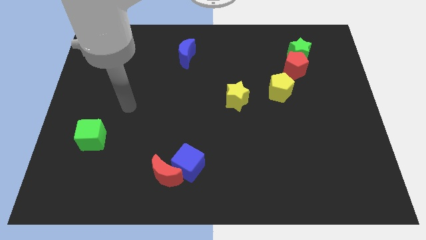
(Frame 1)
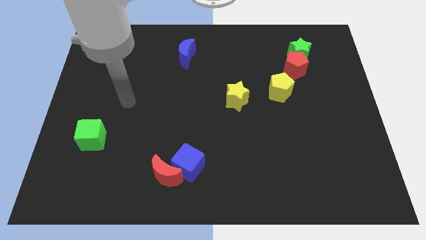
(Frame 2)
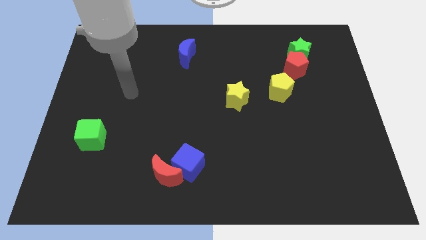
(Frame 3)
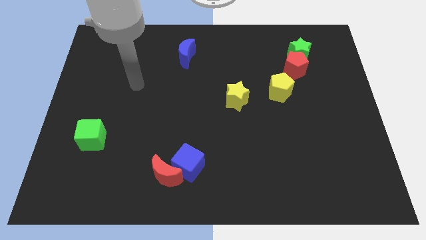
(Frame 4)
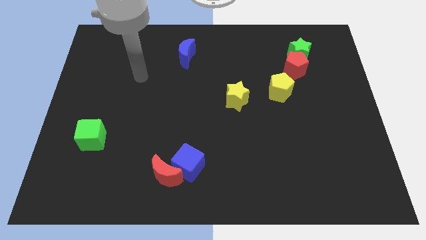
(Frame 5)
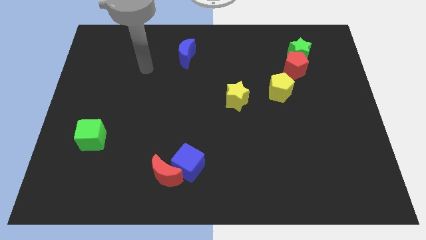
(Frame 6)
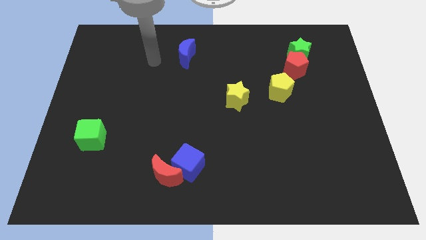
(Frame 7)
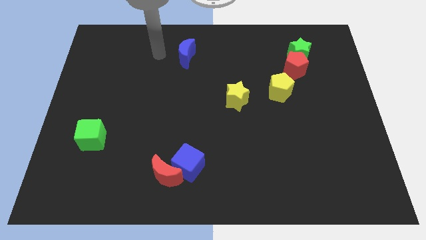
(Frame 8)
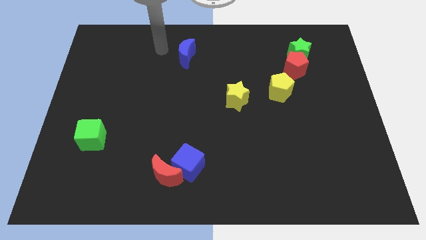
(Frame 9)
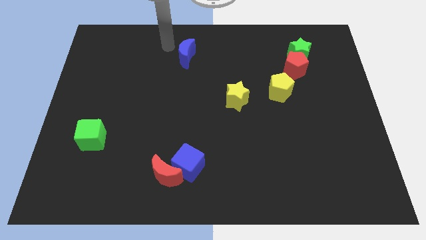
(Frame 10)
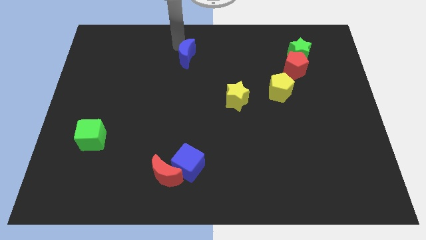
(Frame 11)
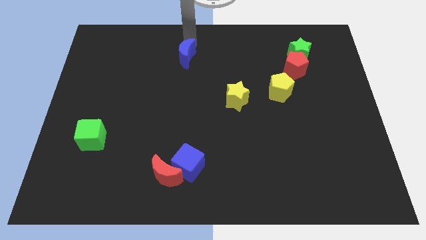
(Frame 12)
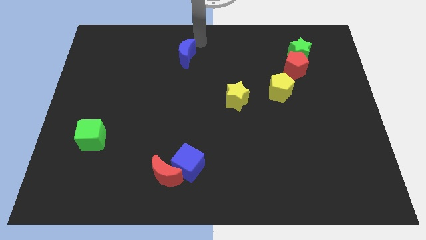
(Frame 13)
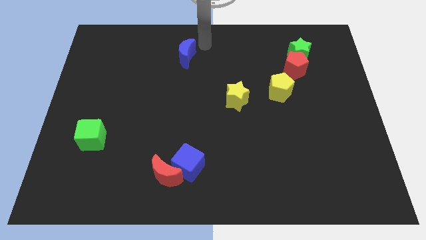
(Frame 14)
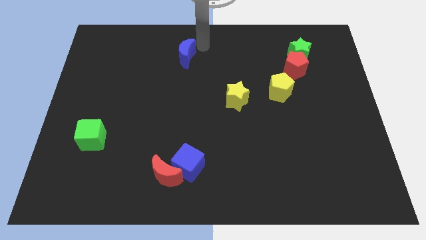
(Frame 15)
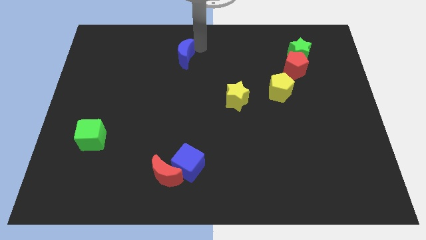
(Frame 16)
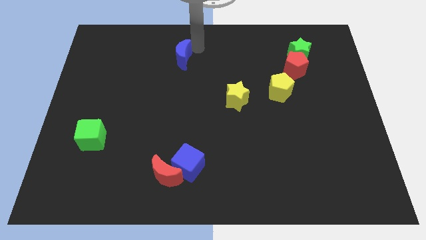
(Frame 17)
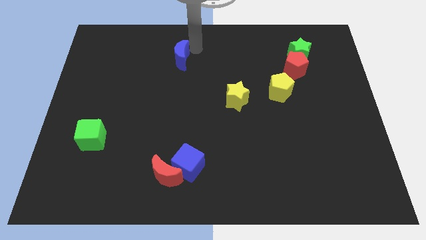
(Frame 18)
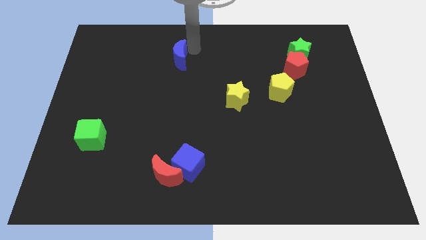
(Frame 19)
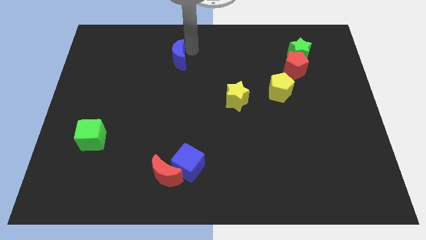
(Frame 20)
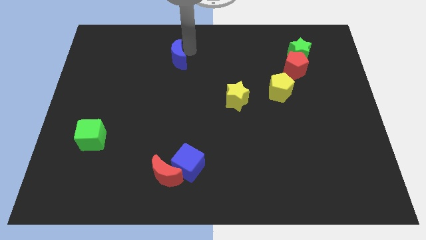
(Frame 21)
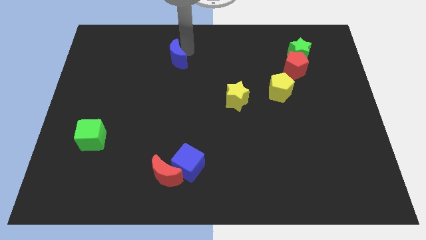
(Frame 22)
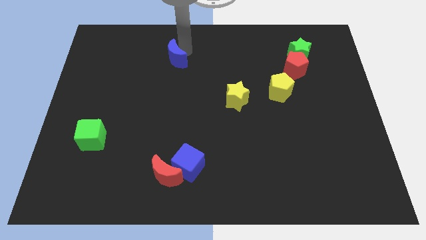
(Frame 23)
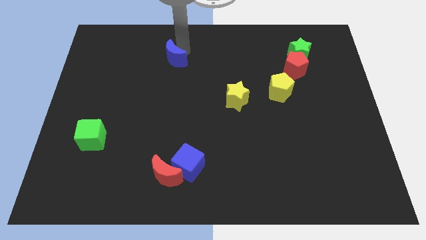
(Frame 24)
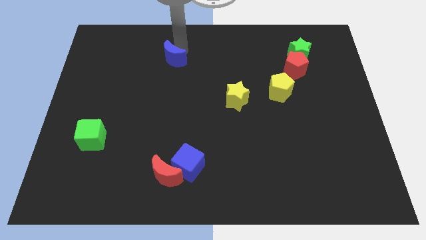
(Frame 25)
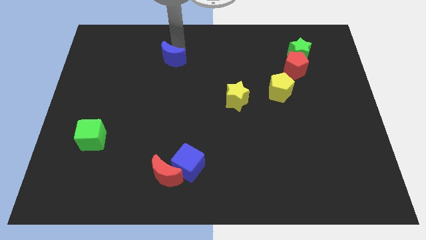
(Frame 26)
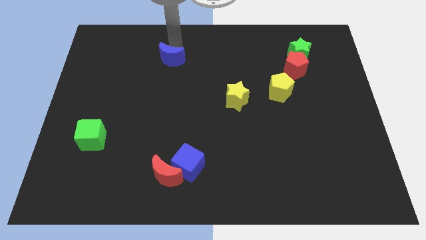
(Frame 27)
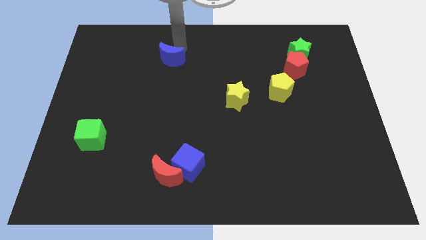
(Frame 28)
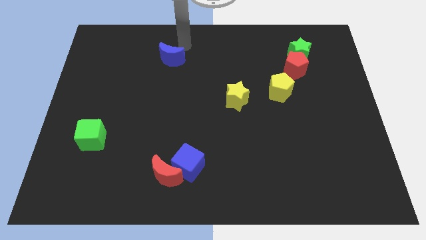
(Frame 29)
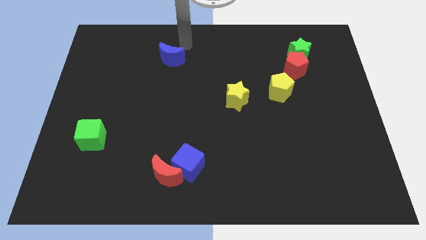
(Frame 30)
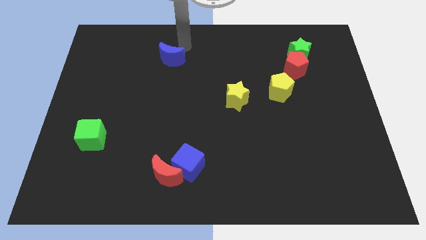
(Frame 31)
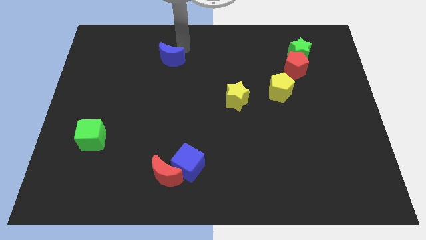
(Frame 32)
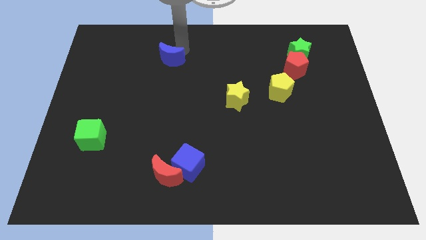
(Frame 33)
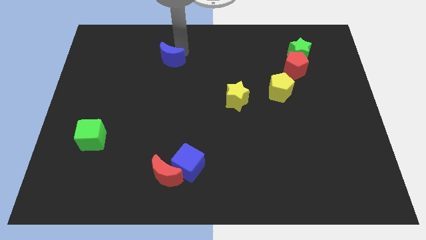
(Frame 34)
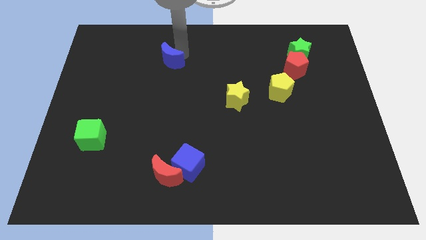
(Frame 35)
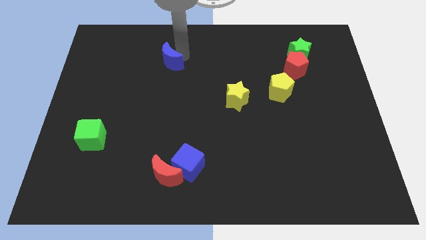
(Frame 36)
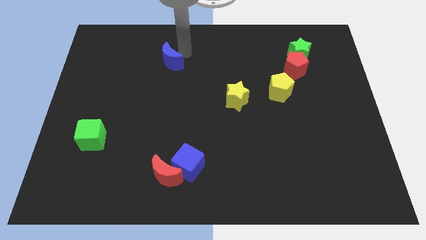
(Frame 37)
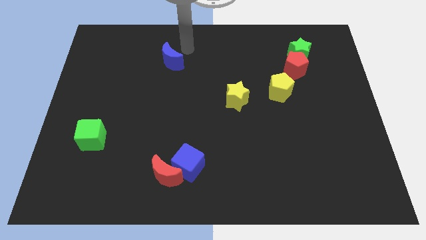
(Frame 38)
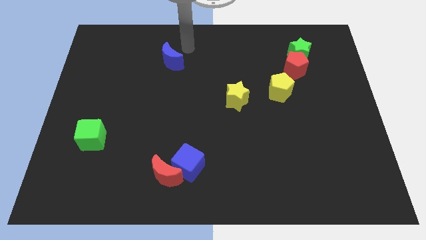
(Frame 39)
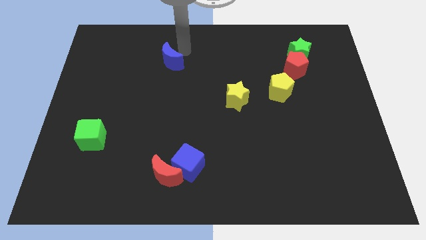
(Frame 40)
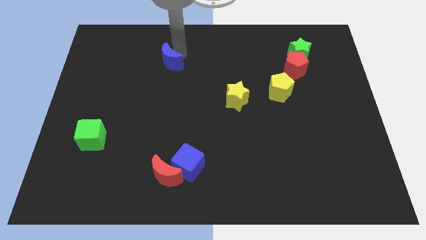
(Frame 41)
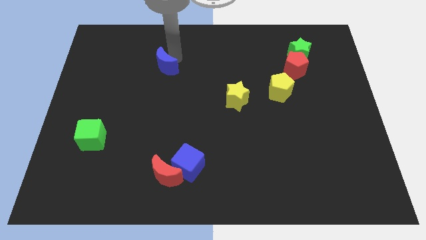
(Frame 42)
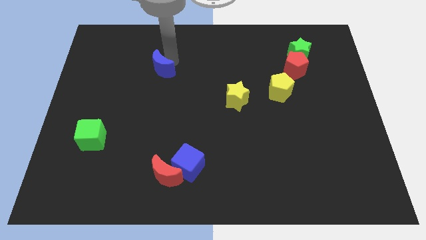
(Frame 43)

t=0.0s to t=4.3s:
push the blue moon down and left diagonally somewhat

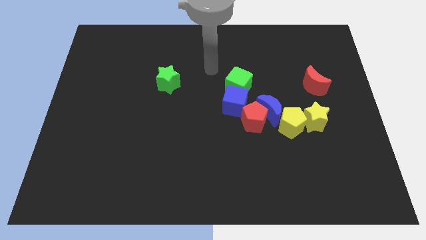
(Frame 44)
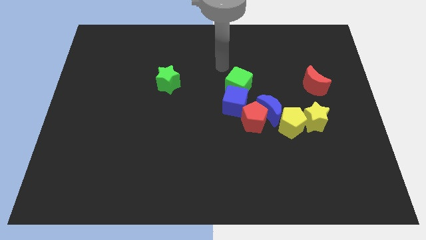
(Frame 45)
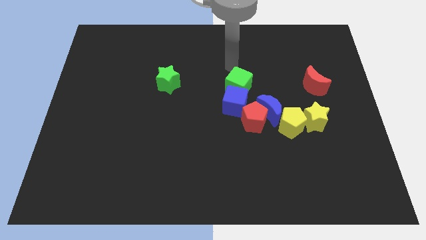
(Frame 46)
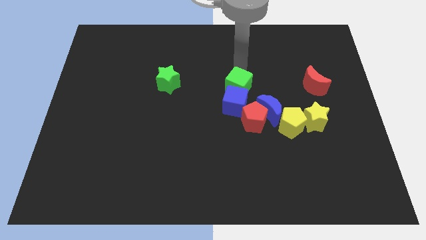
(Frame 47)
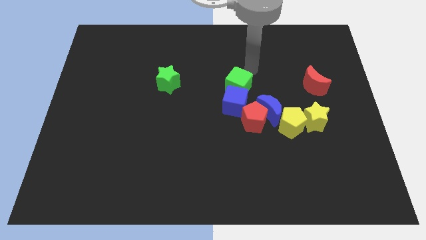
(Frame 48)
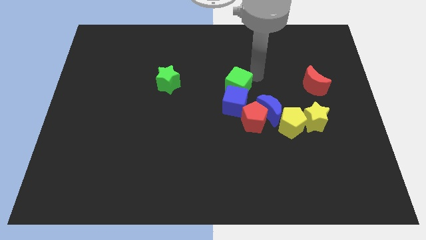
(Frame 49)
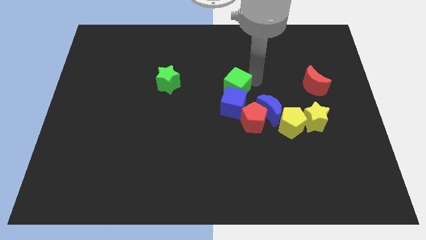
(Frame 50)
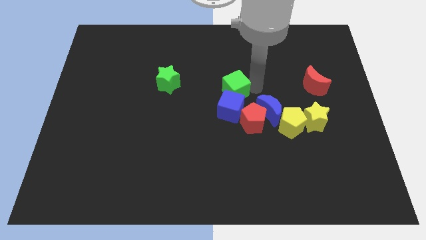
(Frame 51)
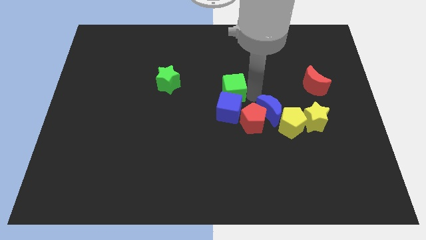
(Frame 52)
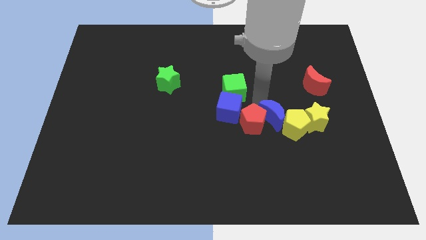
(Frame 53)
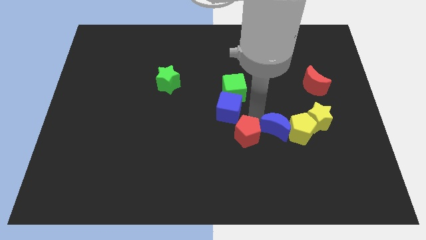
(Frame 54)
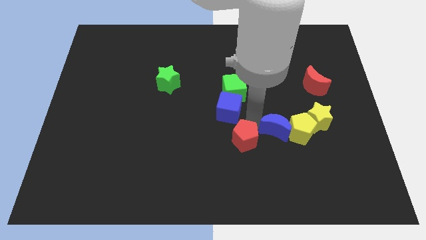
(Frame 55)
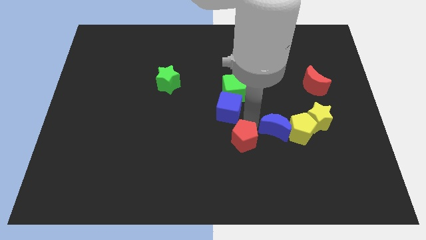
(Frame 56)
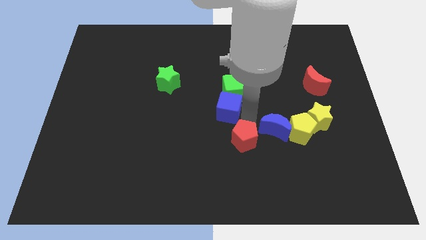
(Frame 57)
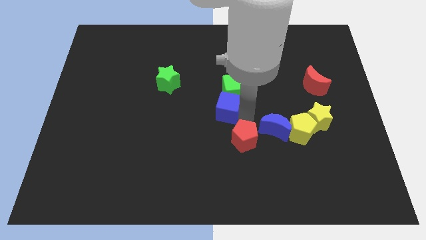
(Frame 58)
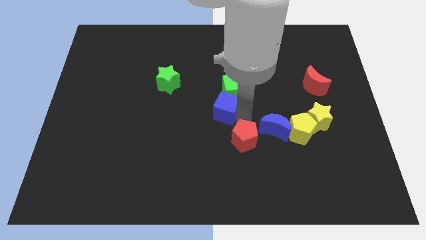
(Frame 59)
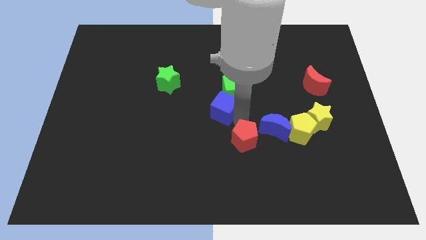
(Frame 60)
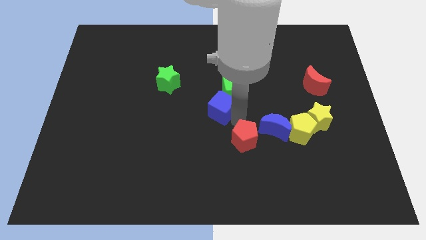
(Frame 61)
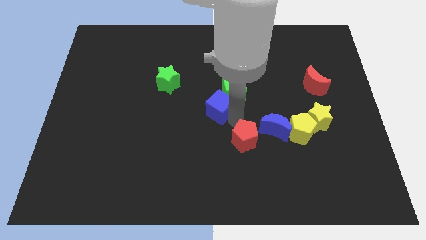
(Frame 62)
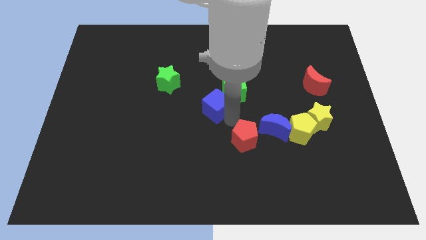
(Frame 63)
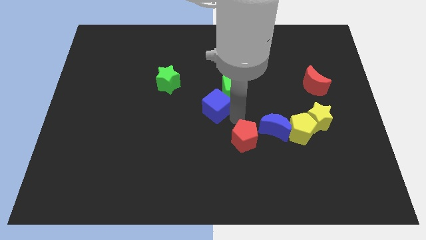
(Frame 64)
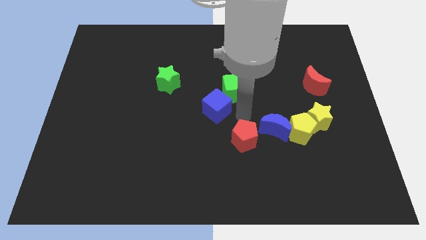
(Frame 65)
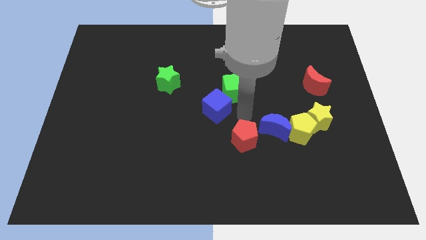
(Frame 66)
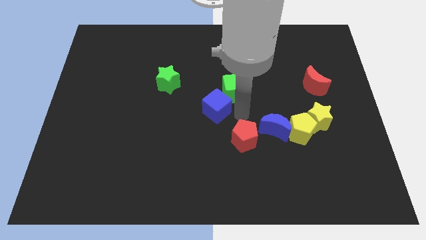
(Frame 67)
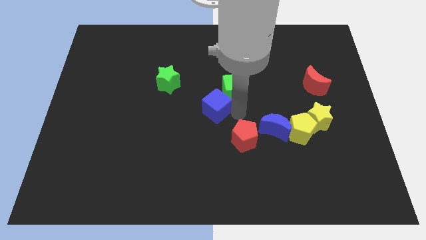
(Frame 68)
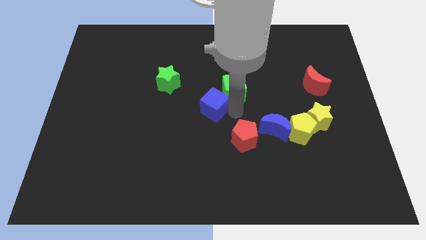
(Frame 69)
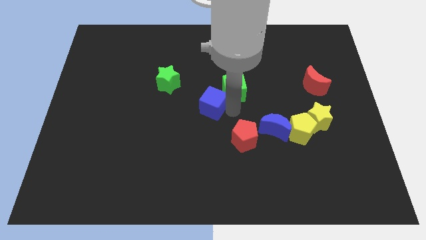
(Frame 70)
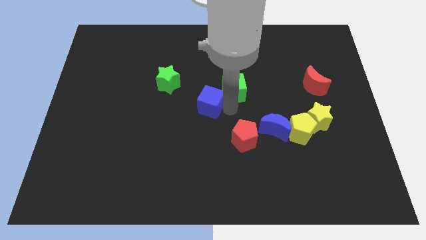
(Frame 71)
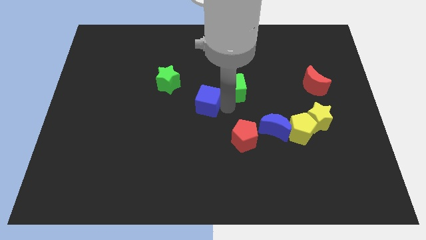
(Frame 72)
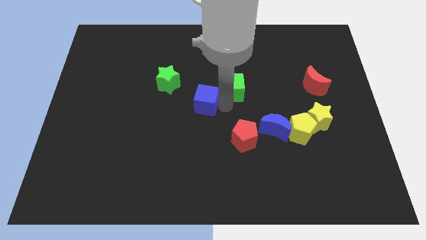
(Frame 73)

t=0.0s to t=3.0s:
move the blue cube a little left

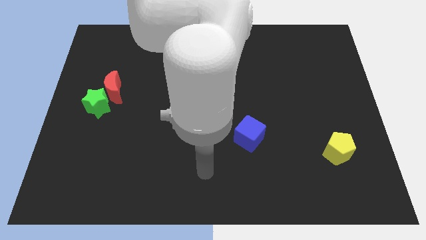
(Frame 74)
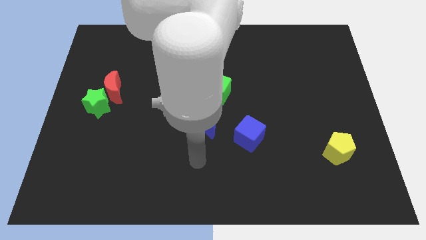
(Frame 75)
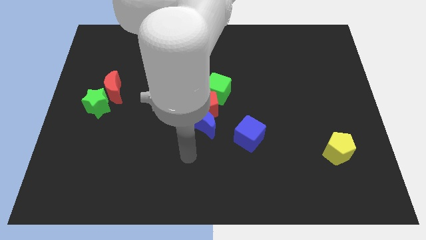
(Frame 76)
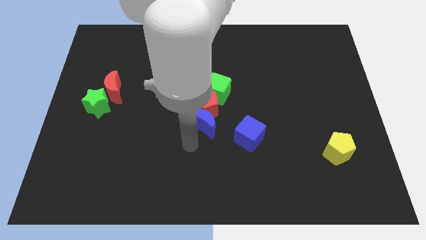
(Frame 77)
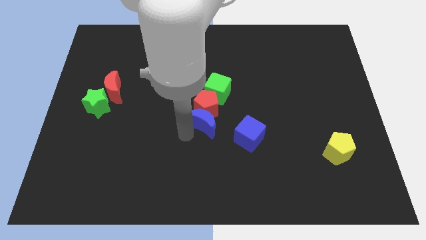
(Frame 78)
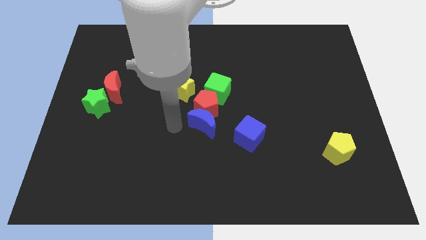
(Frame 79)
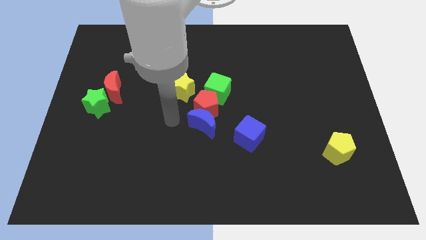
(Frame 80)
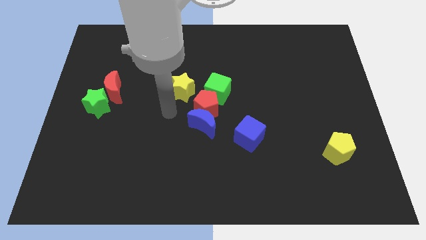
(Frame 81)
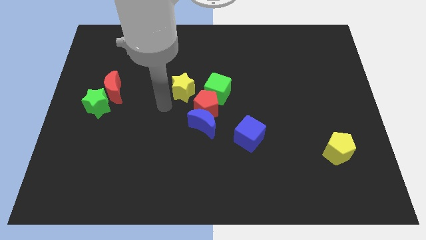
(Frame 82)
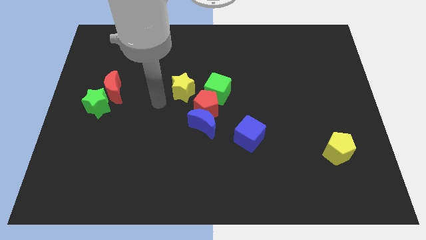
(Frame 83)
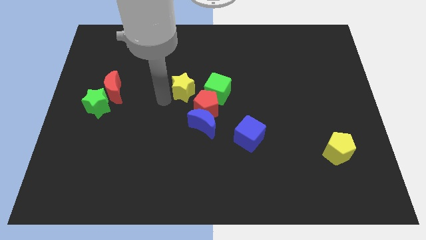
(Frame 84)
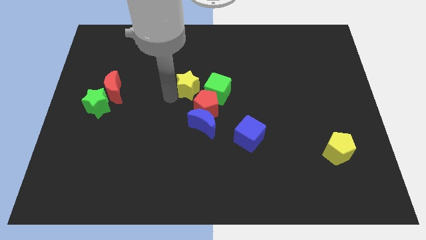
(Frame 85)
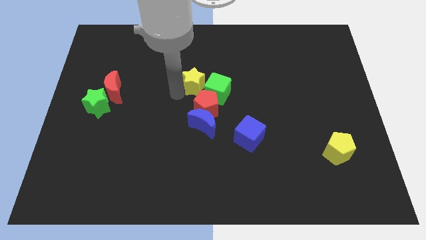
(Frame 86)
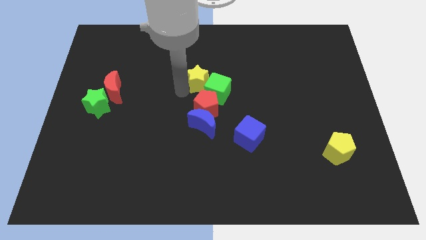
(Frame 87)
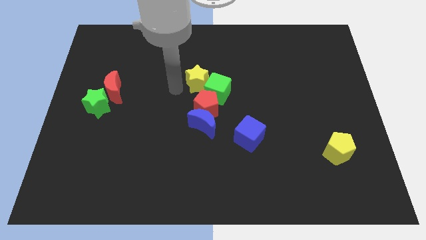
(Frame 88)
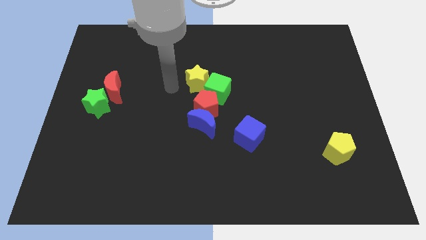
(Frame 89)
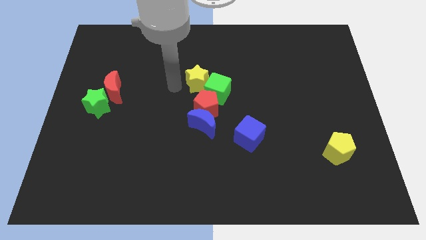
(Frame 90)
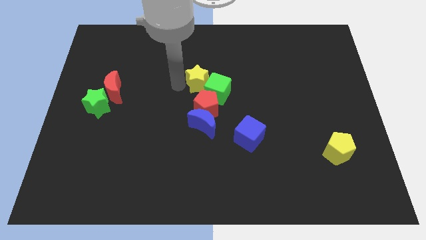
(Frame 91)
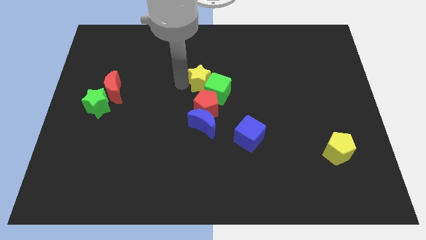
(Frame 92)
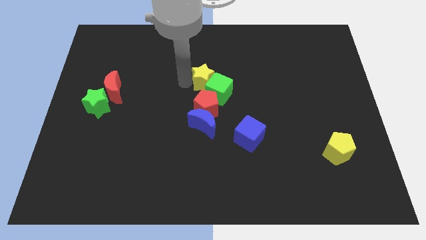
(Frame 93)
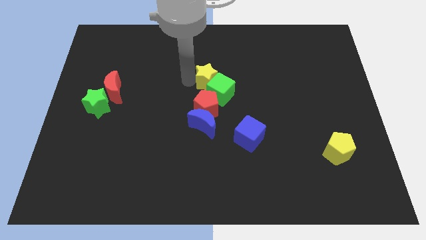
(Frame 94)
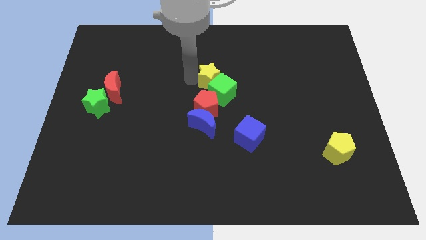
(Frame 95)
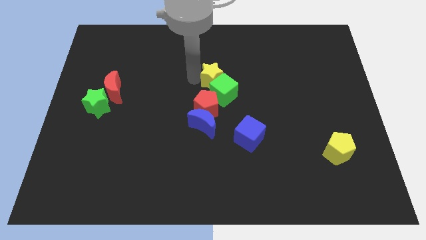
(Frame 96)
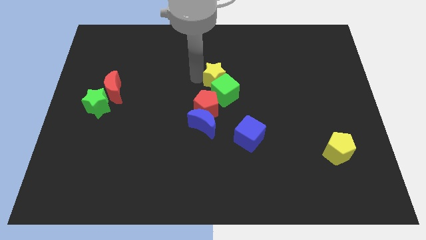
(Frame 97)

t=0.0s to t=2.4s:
push the yellow star right somewhat
